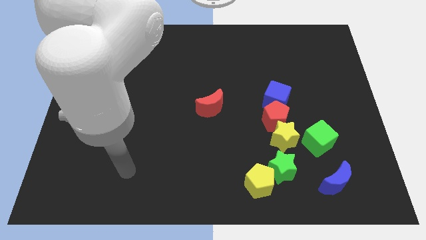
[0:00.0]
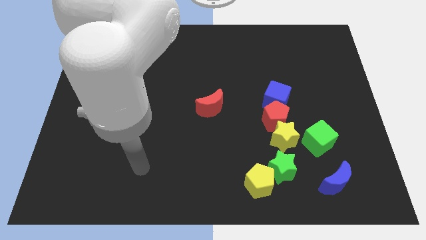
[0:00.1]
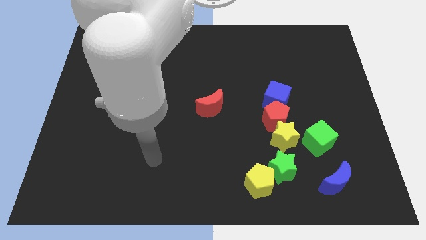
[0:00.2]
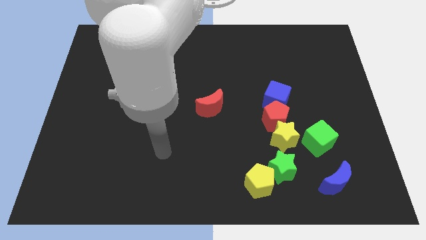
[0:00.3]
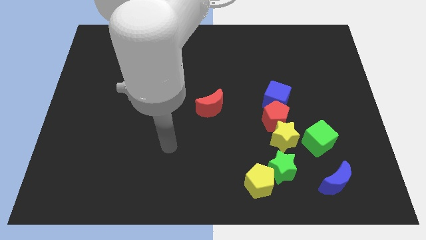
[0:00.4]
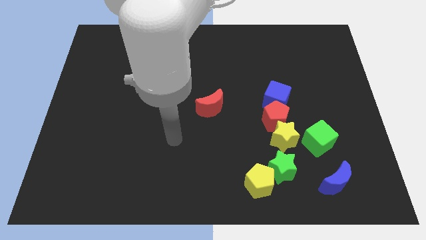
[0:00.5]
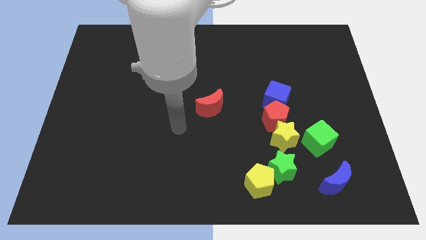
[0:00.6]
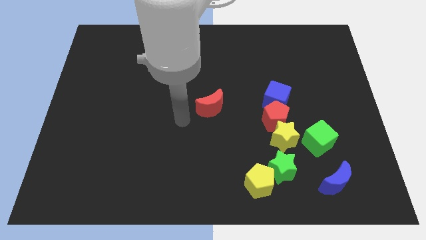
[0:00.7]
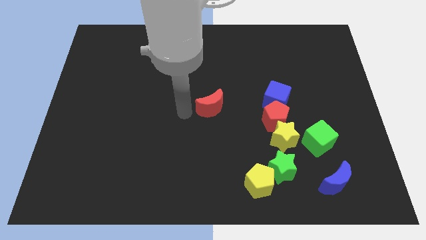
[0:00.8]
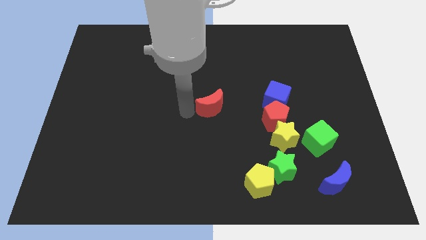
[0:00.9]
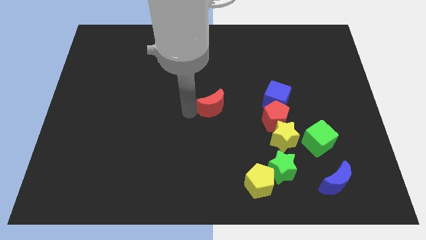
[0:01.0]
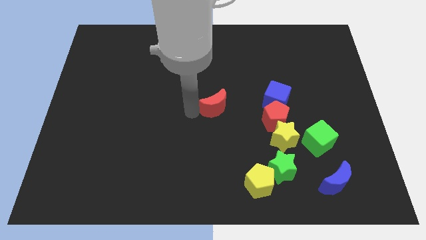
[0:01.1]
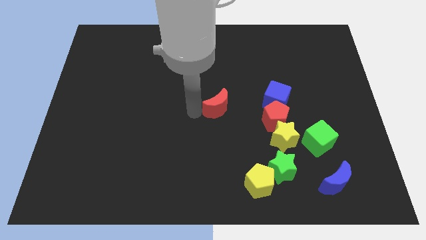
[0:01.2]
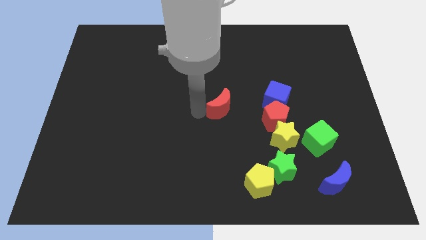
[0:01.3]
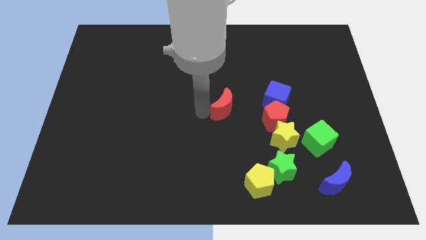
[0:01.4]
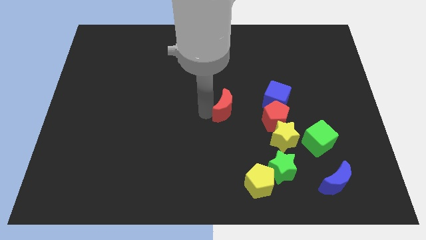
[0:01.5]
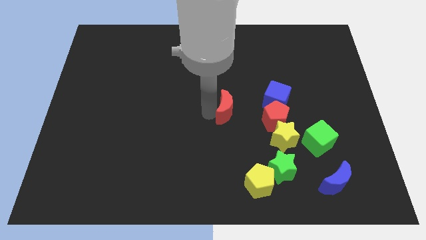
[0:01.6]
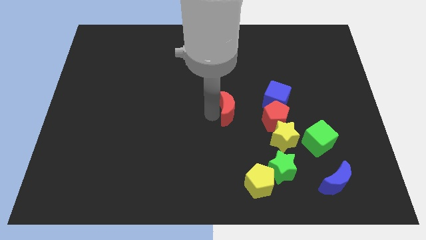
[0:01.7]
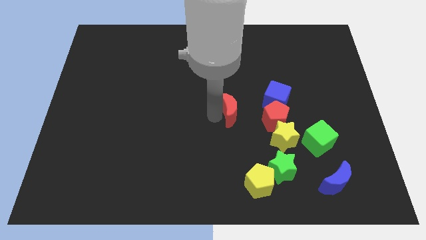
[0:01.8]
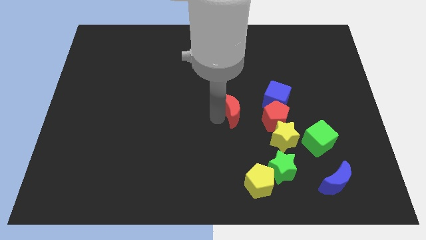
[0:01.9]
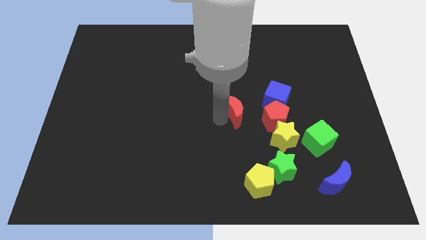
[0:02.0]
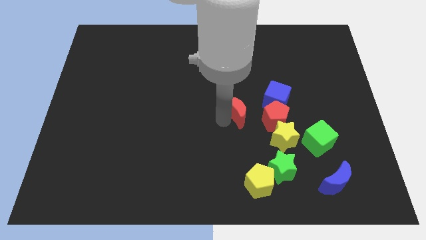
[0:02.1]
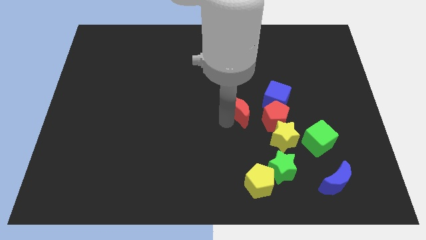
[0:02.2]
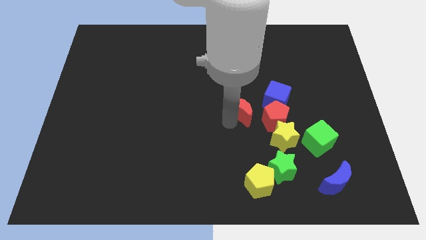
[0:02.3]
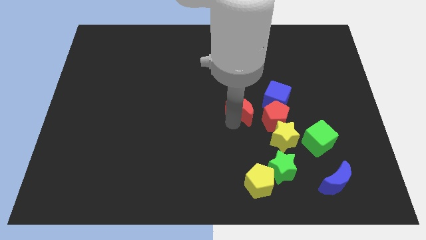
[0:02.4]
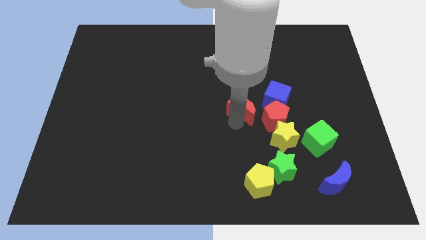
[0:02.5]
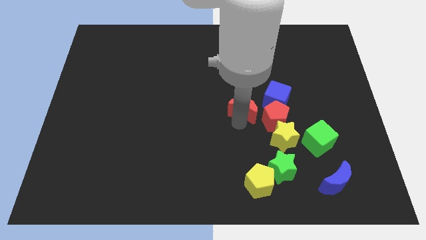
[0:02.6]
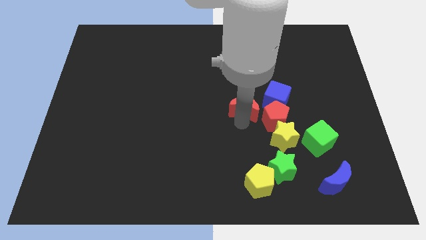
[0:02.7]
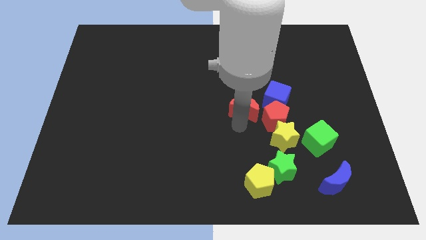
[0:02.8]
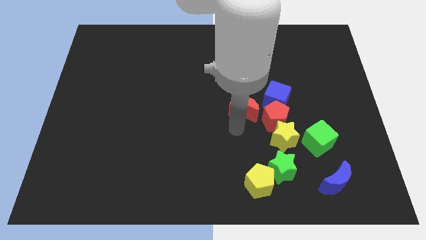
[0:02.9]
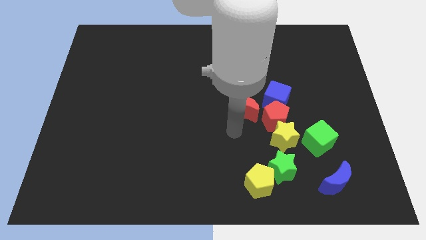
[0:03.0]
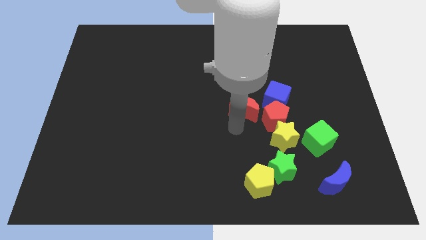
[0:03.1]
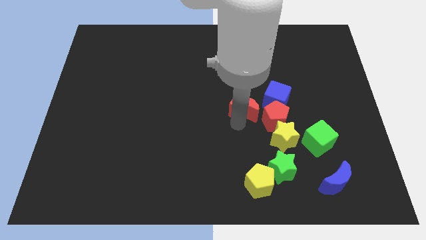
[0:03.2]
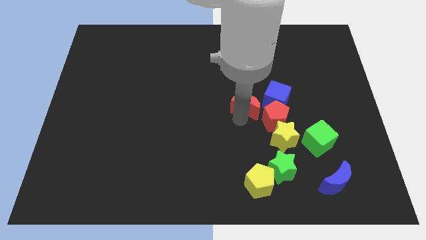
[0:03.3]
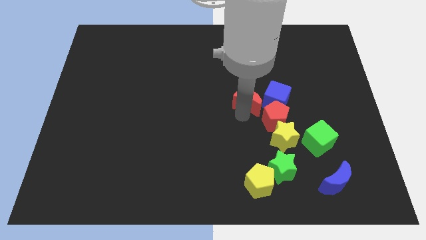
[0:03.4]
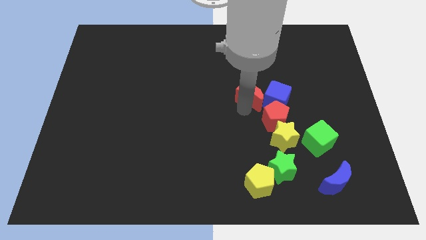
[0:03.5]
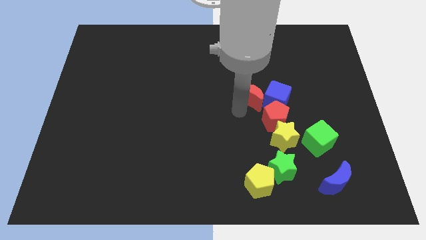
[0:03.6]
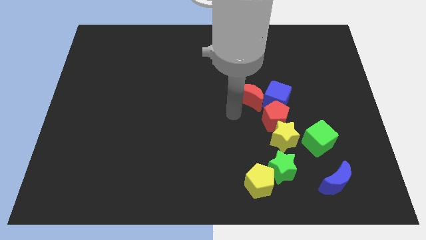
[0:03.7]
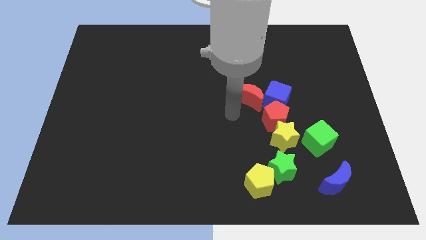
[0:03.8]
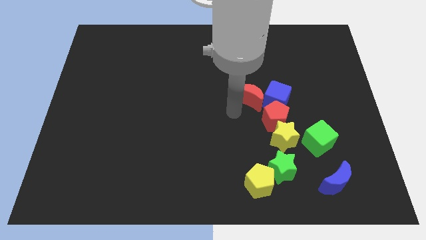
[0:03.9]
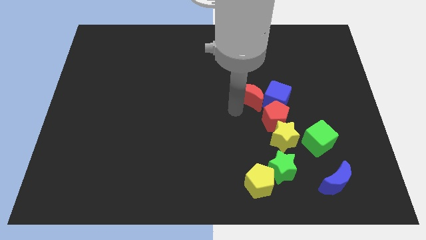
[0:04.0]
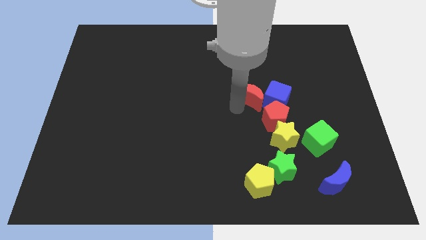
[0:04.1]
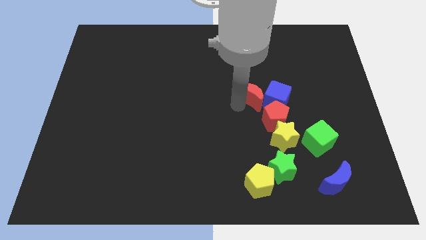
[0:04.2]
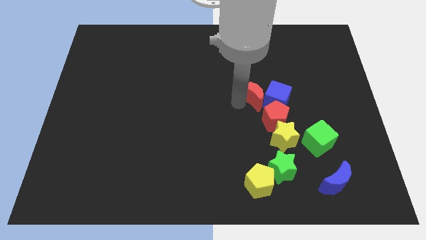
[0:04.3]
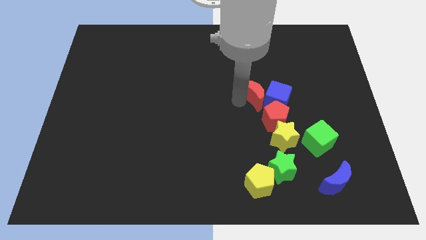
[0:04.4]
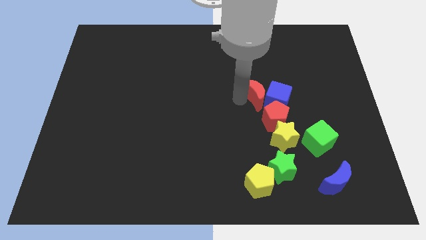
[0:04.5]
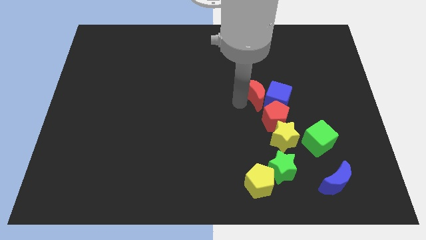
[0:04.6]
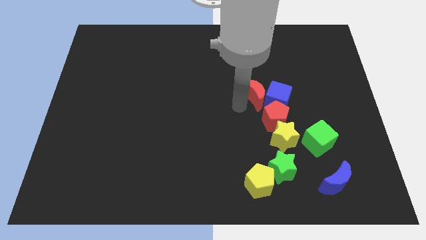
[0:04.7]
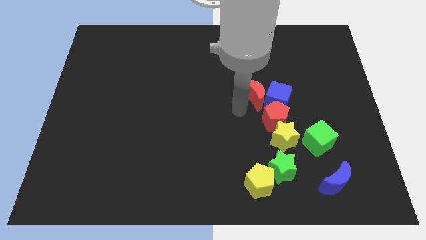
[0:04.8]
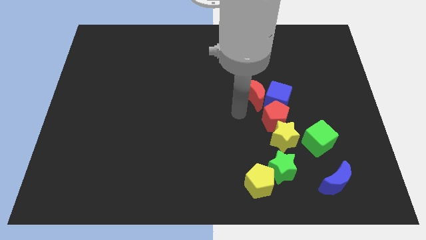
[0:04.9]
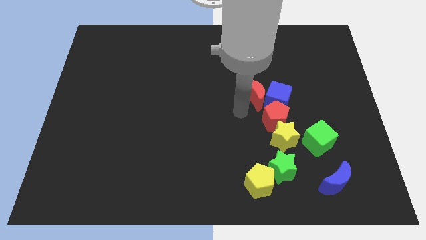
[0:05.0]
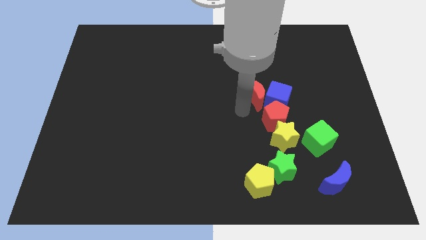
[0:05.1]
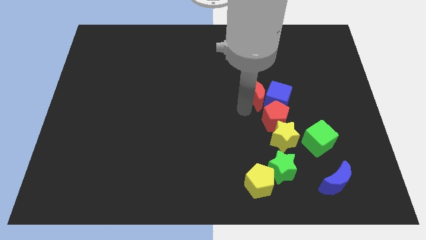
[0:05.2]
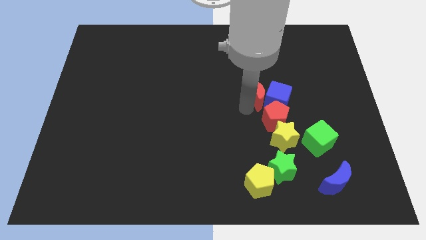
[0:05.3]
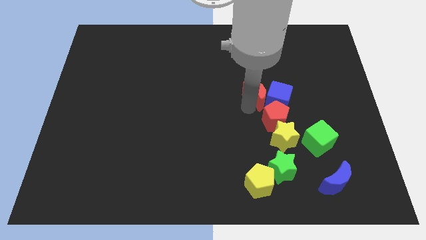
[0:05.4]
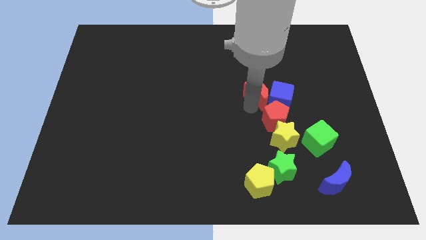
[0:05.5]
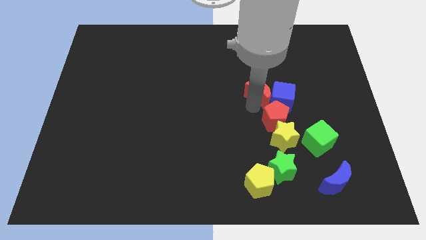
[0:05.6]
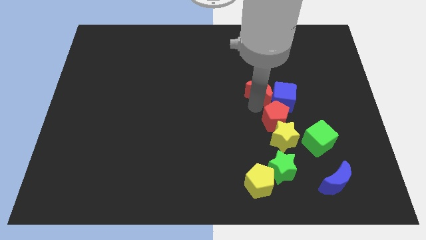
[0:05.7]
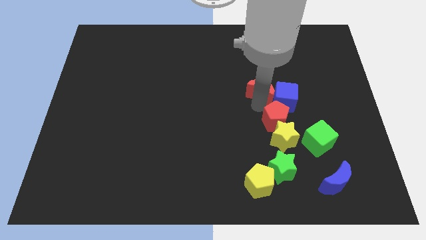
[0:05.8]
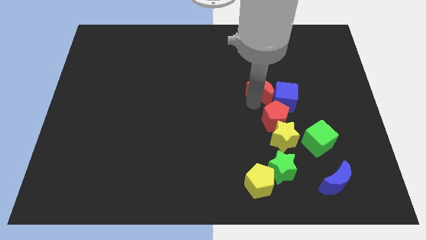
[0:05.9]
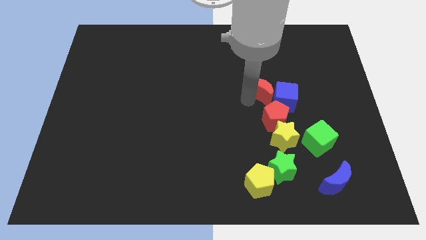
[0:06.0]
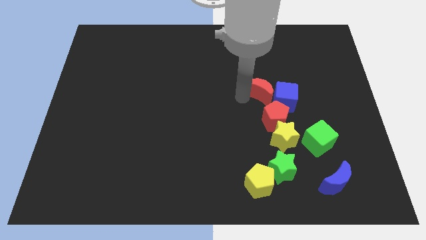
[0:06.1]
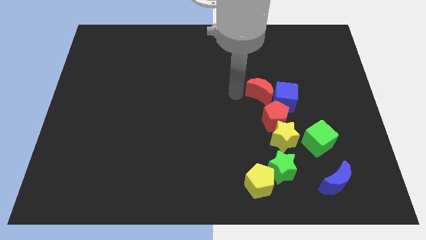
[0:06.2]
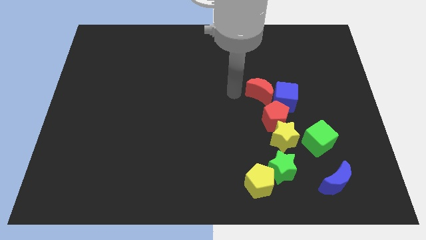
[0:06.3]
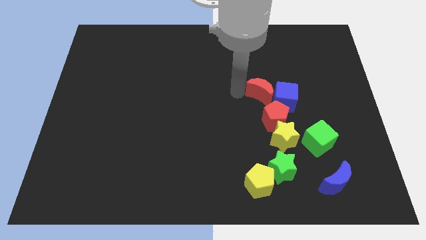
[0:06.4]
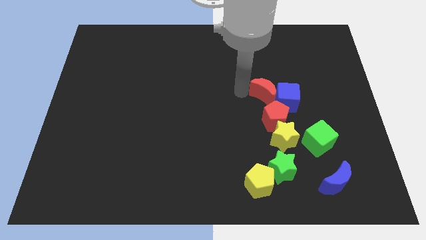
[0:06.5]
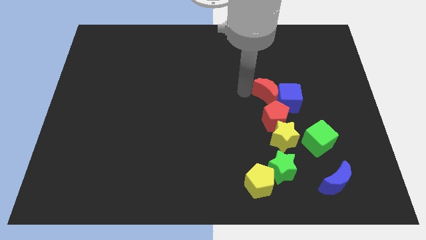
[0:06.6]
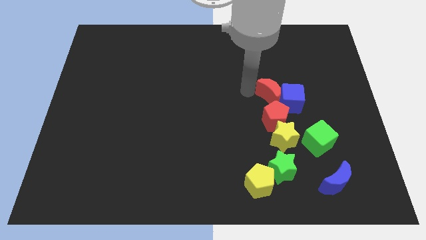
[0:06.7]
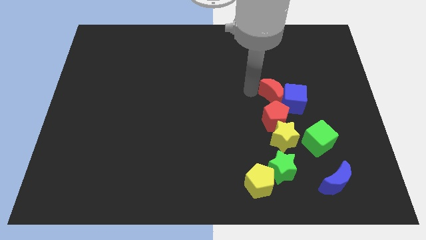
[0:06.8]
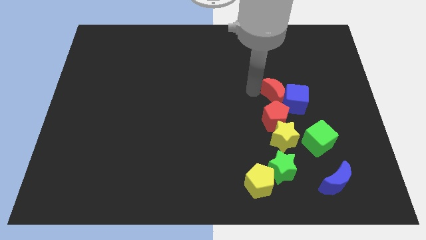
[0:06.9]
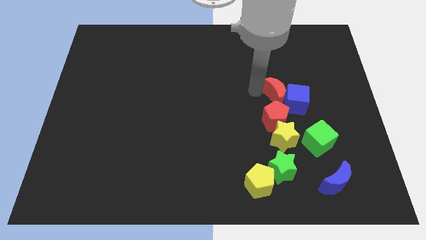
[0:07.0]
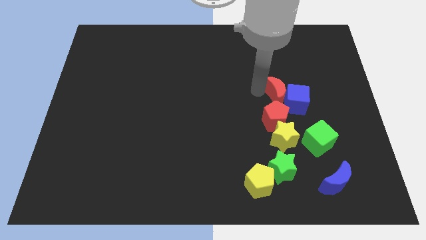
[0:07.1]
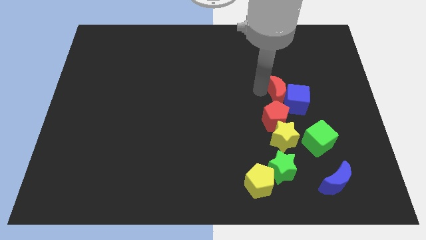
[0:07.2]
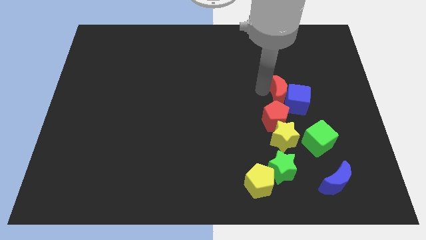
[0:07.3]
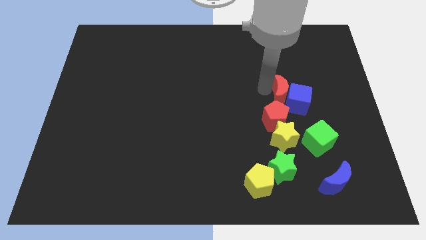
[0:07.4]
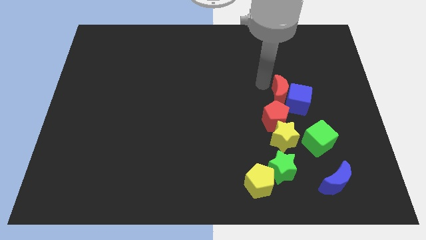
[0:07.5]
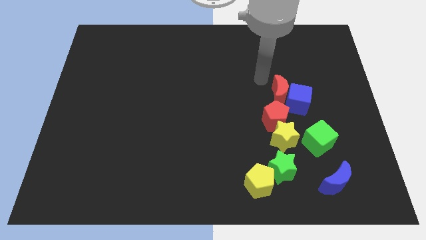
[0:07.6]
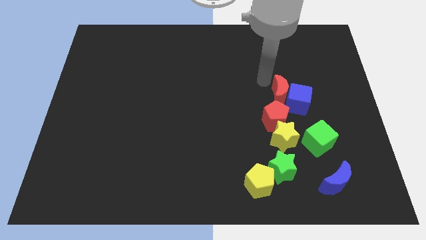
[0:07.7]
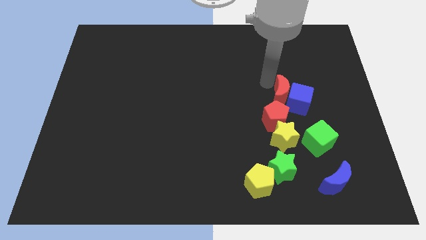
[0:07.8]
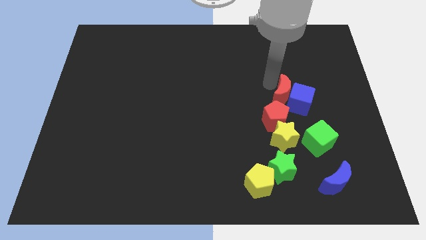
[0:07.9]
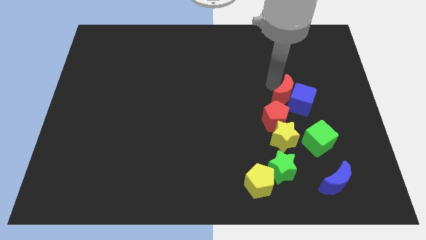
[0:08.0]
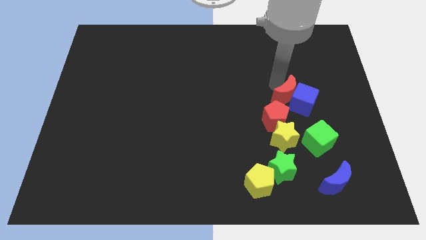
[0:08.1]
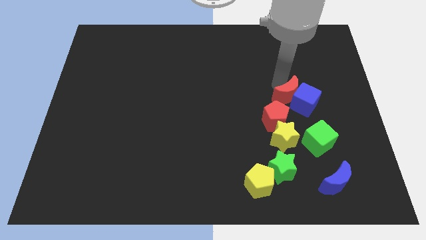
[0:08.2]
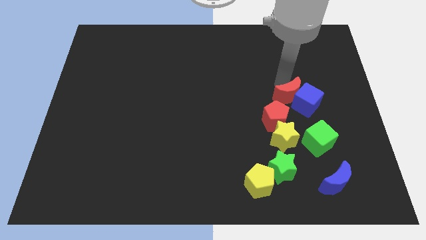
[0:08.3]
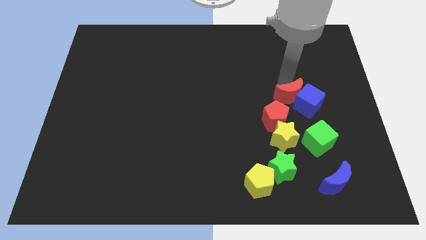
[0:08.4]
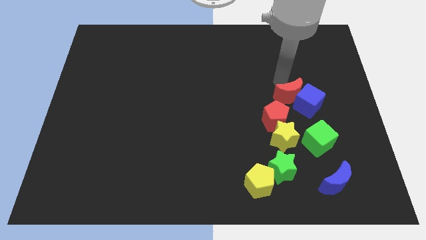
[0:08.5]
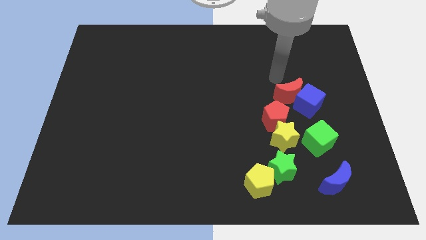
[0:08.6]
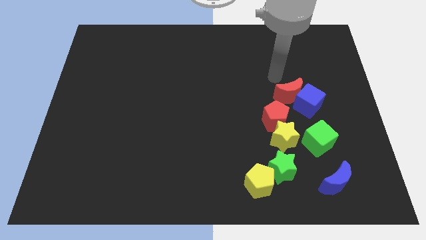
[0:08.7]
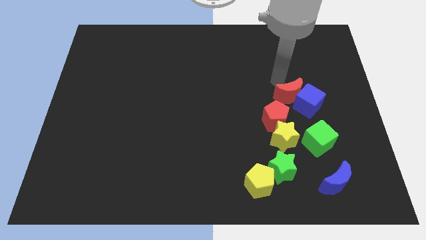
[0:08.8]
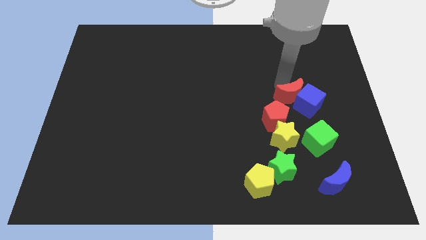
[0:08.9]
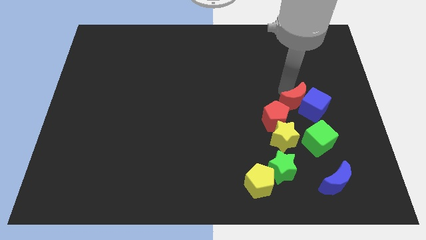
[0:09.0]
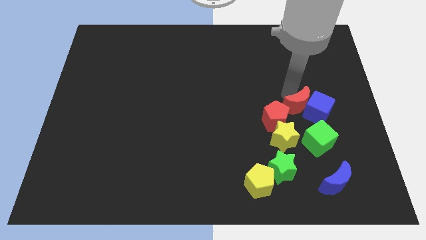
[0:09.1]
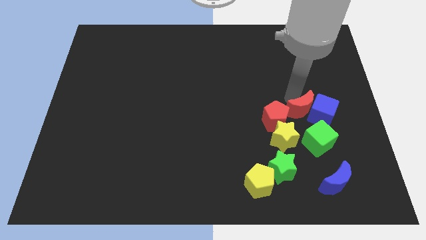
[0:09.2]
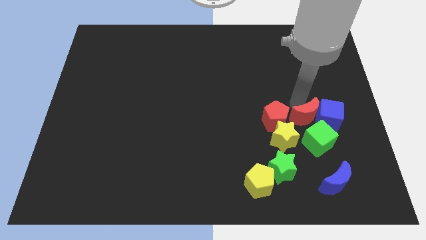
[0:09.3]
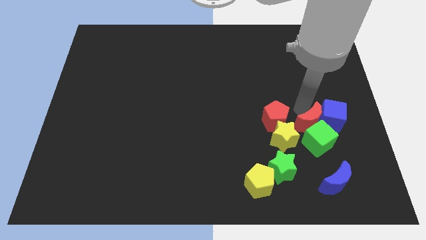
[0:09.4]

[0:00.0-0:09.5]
move the red moon next to the green cube
